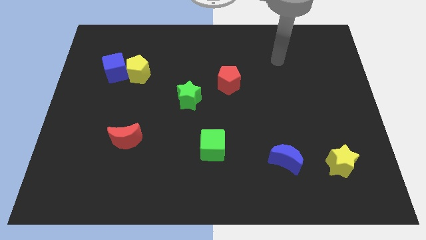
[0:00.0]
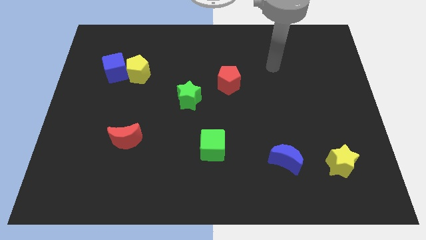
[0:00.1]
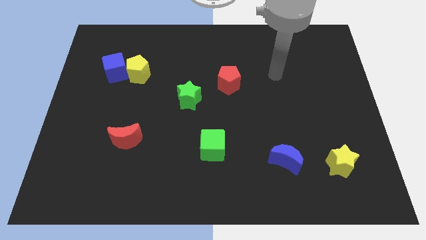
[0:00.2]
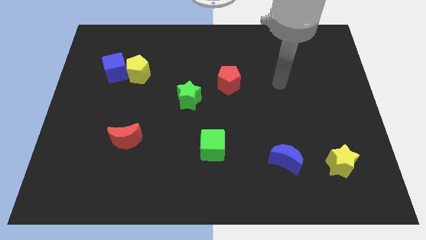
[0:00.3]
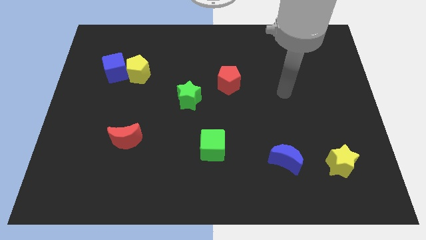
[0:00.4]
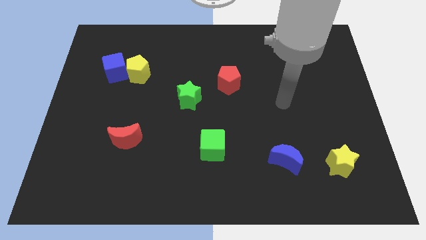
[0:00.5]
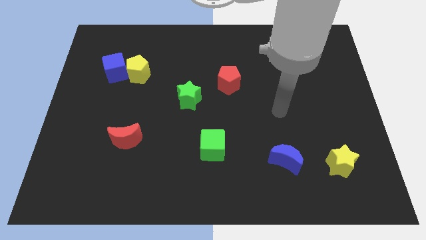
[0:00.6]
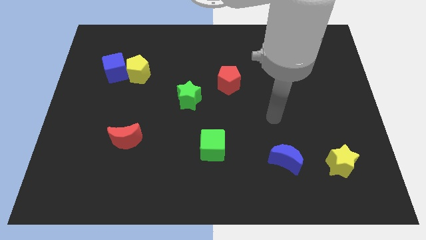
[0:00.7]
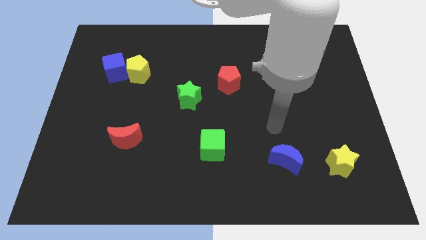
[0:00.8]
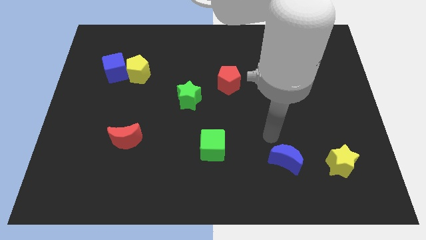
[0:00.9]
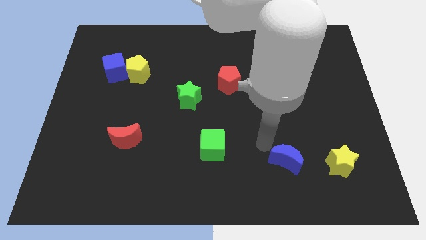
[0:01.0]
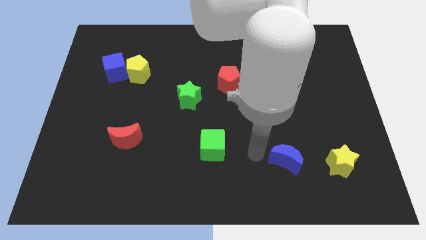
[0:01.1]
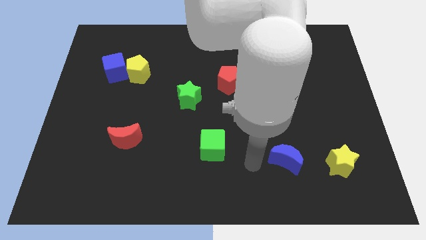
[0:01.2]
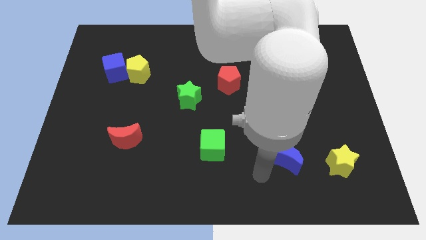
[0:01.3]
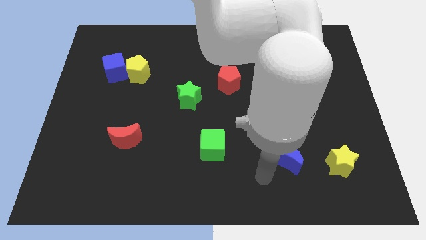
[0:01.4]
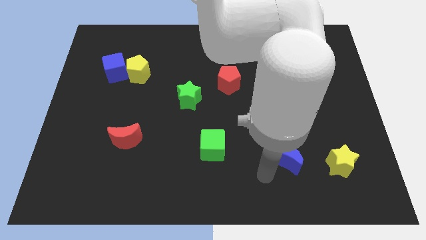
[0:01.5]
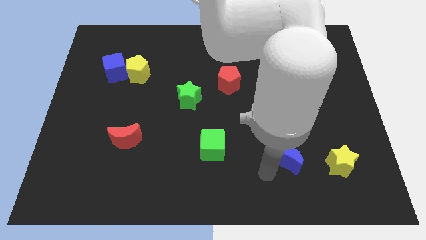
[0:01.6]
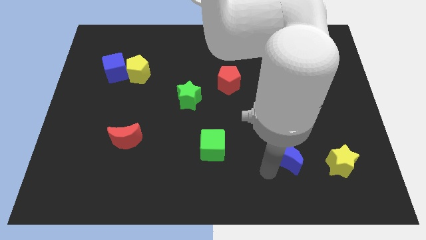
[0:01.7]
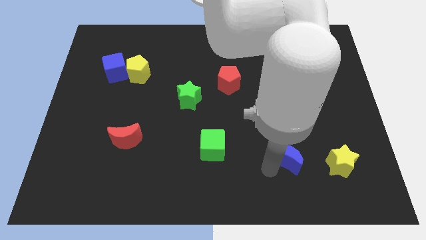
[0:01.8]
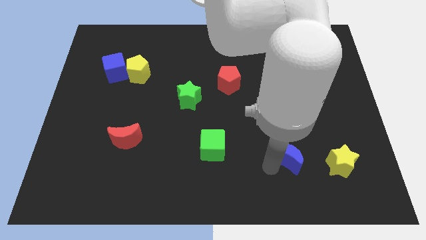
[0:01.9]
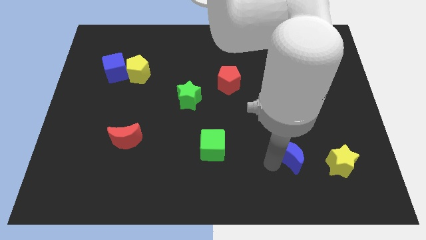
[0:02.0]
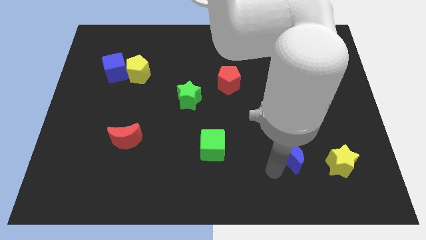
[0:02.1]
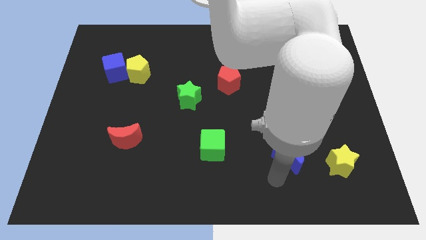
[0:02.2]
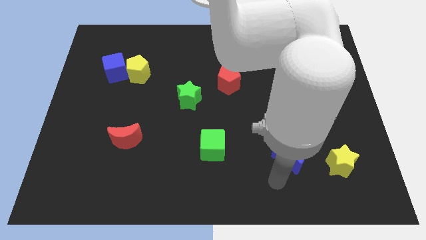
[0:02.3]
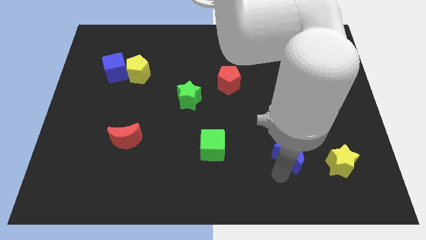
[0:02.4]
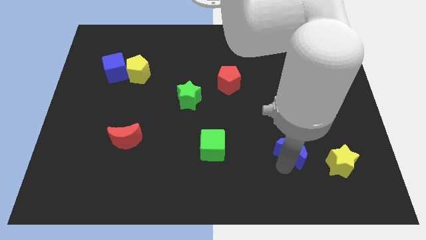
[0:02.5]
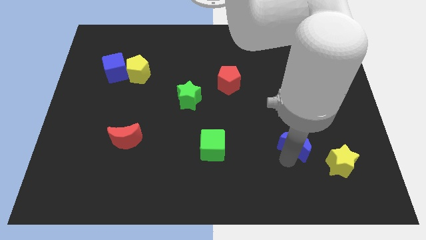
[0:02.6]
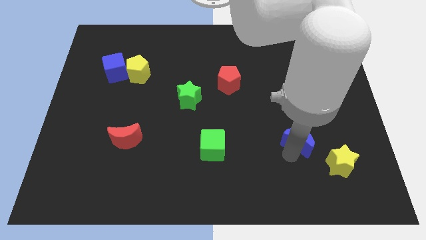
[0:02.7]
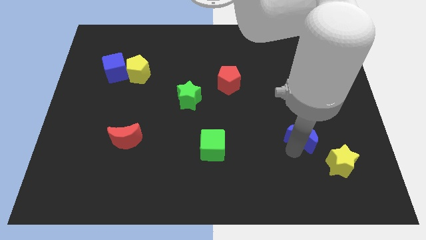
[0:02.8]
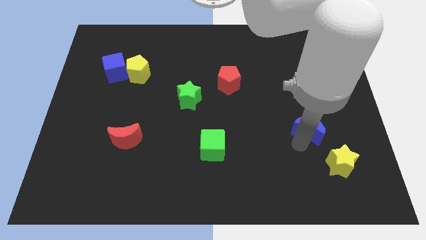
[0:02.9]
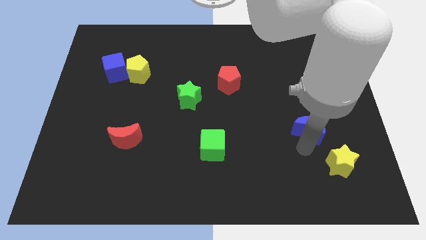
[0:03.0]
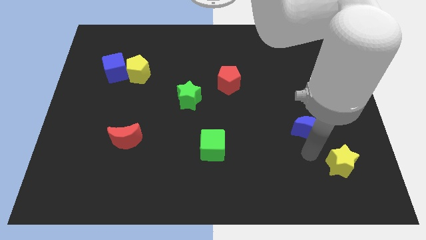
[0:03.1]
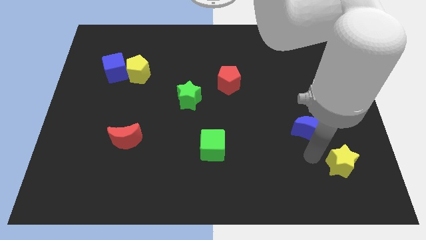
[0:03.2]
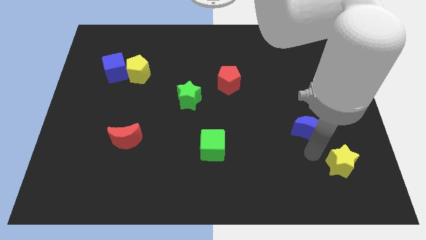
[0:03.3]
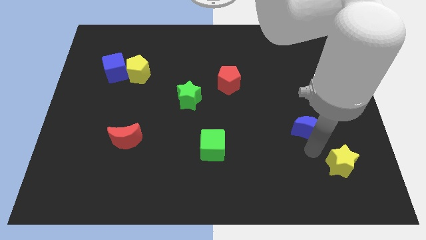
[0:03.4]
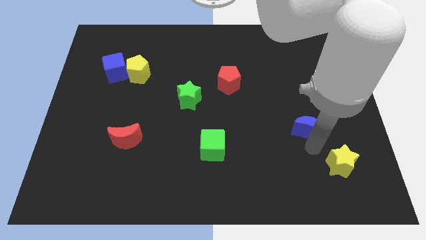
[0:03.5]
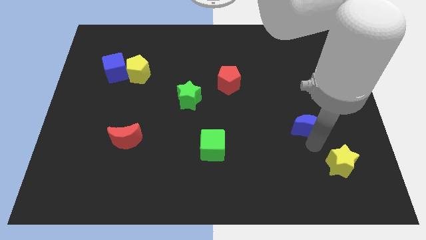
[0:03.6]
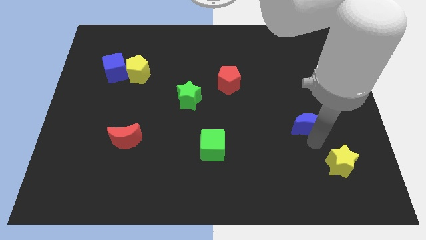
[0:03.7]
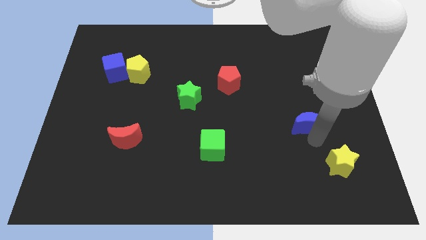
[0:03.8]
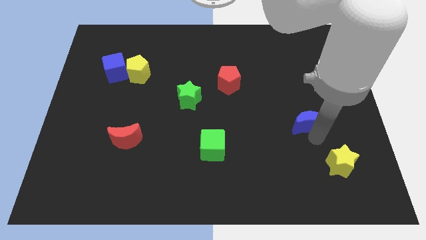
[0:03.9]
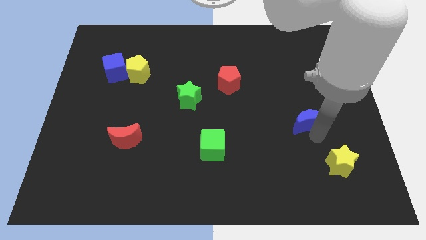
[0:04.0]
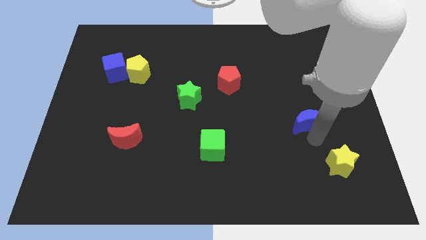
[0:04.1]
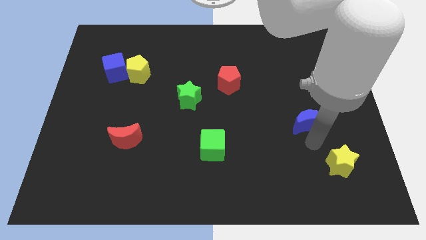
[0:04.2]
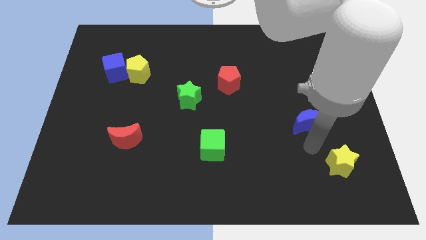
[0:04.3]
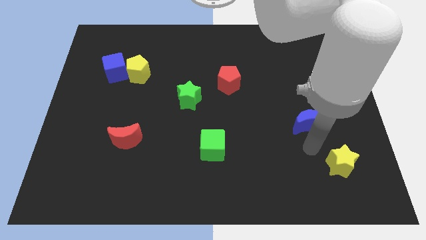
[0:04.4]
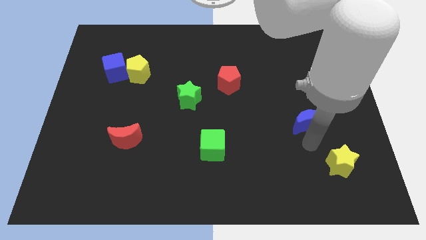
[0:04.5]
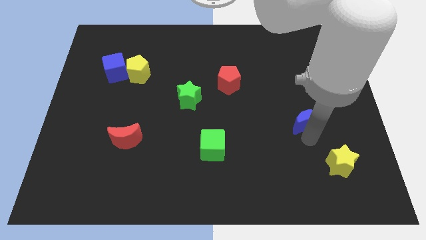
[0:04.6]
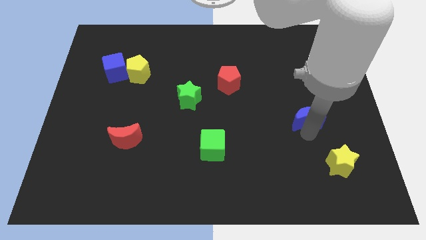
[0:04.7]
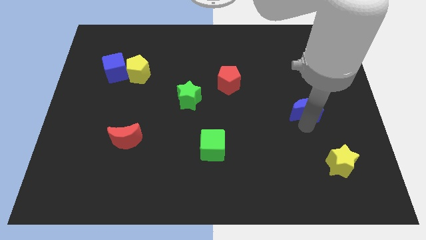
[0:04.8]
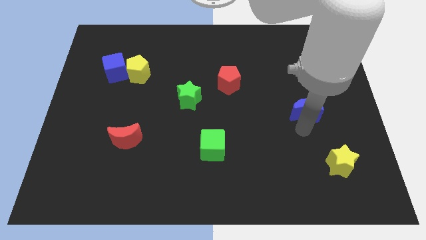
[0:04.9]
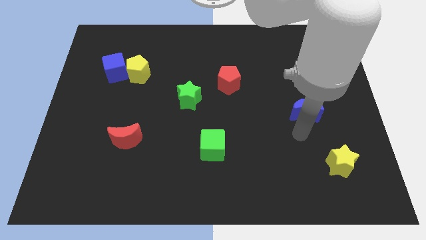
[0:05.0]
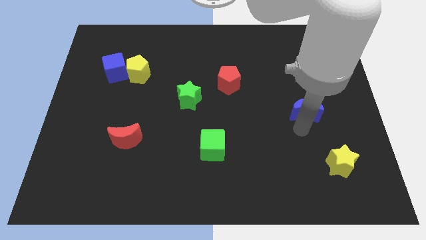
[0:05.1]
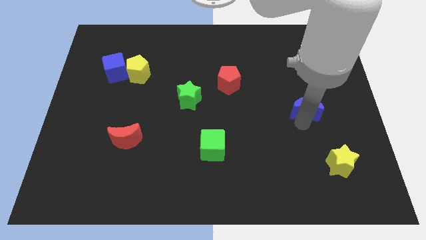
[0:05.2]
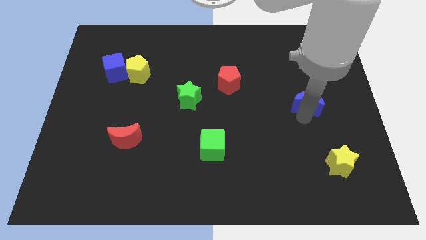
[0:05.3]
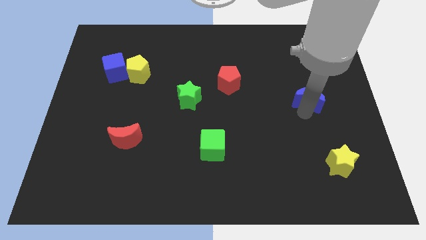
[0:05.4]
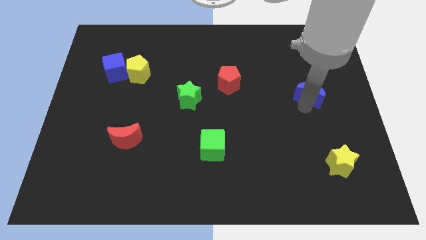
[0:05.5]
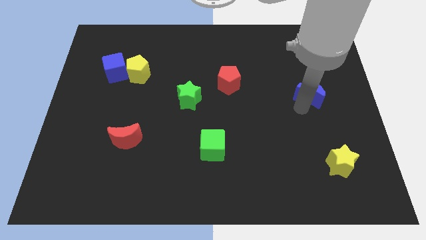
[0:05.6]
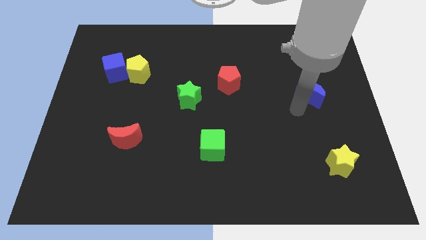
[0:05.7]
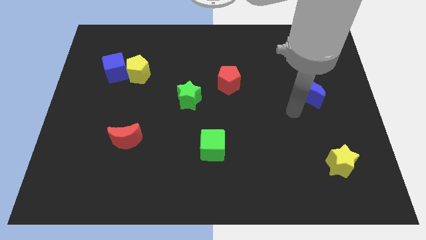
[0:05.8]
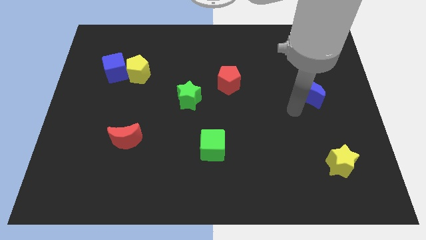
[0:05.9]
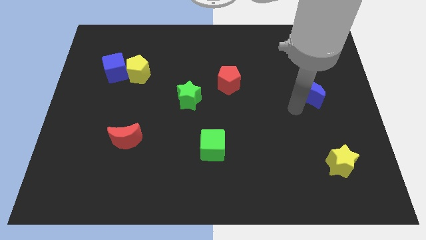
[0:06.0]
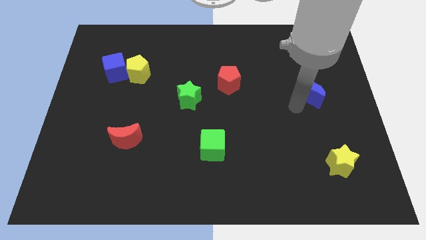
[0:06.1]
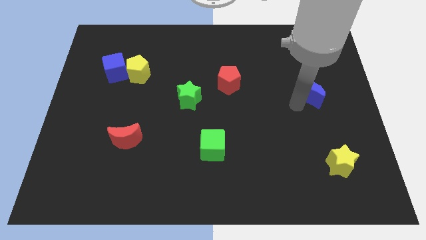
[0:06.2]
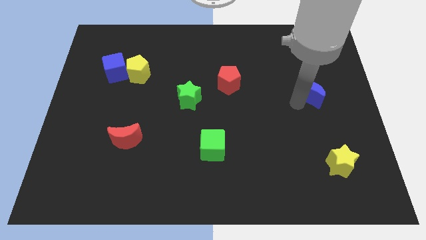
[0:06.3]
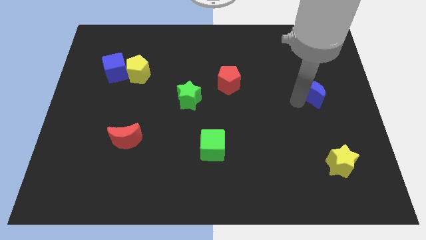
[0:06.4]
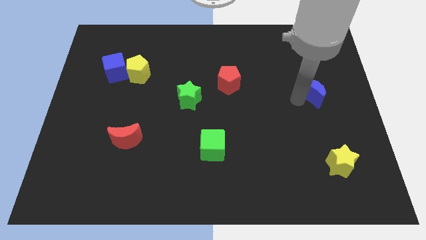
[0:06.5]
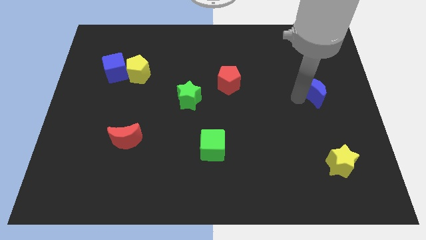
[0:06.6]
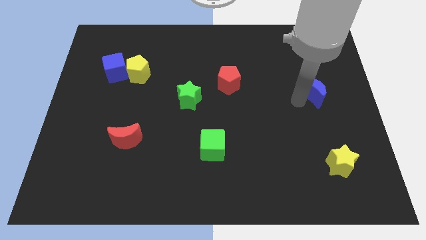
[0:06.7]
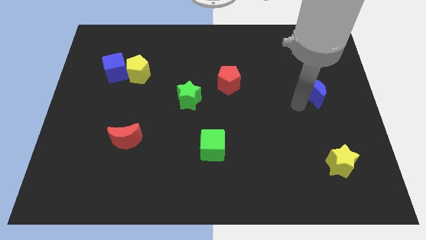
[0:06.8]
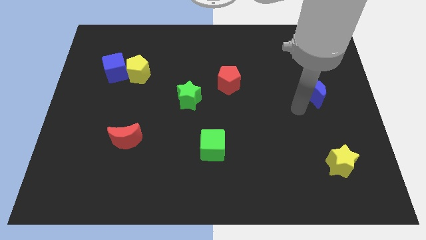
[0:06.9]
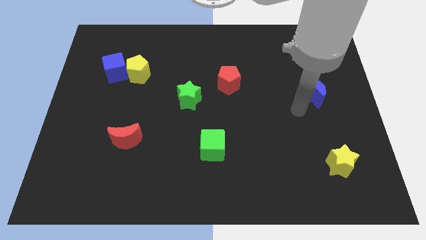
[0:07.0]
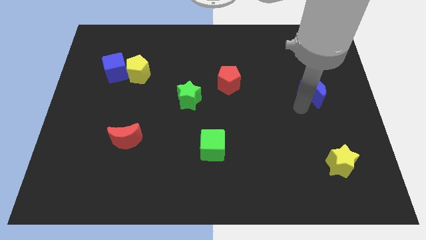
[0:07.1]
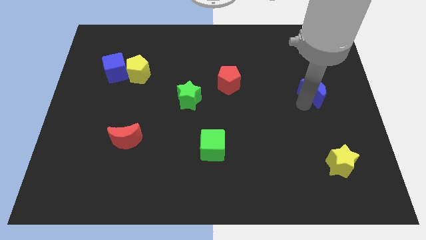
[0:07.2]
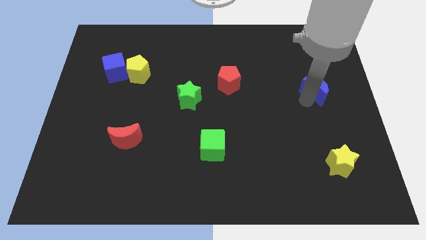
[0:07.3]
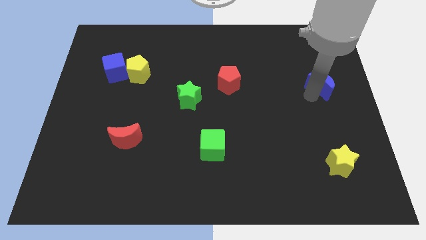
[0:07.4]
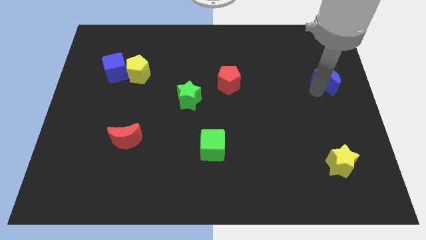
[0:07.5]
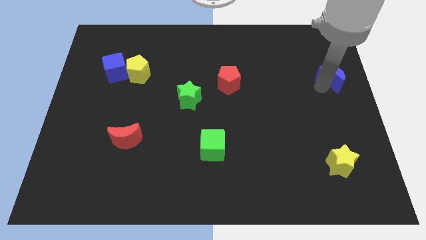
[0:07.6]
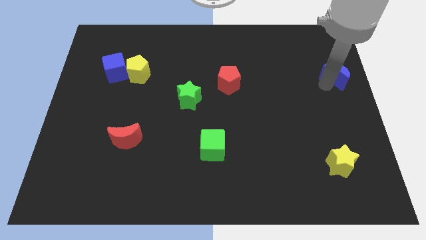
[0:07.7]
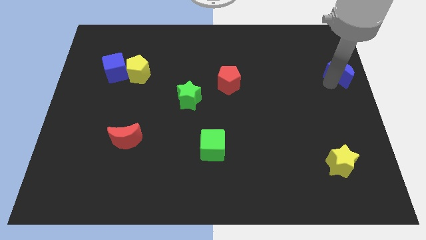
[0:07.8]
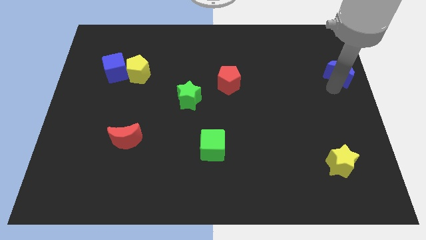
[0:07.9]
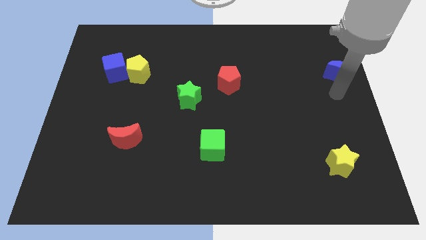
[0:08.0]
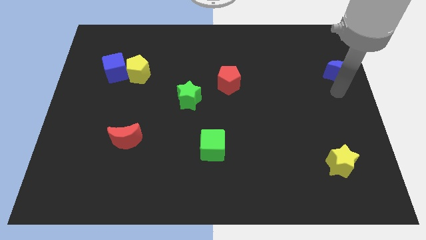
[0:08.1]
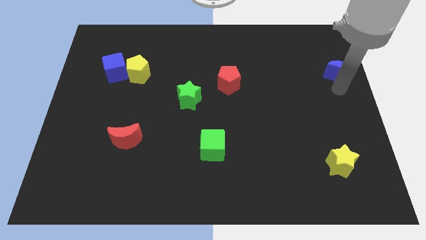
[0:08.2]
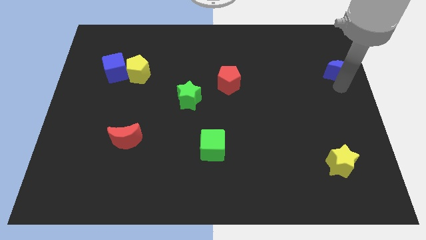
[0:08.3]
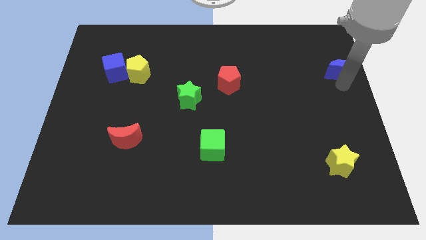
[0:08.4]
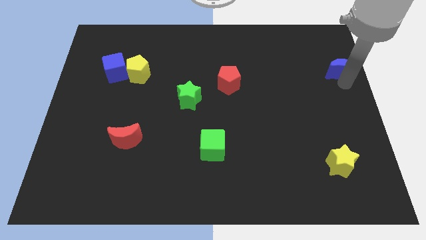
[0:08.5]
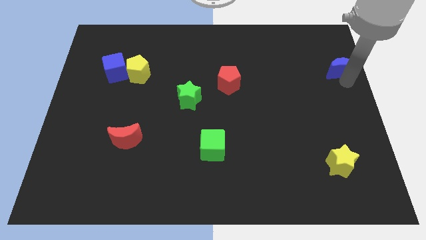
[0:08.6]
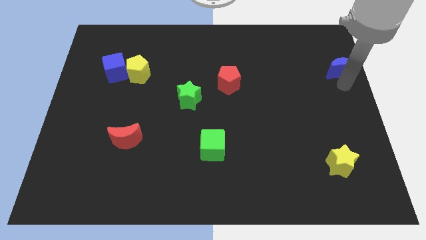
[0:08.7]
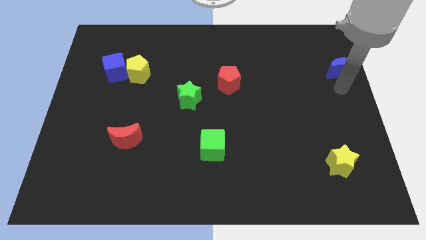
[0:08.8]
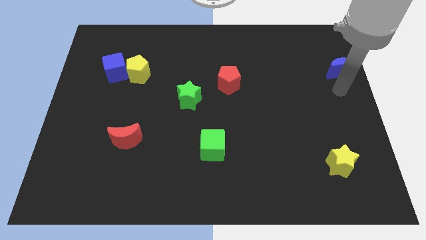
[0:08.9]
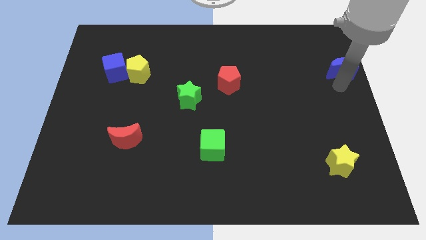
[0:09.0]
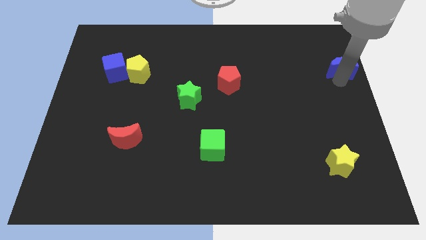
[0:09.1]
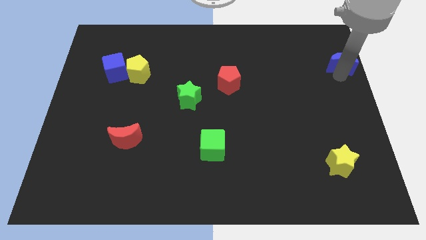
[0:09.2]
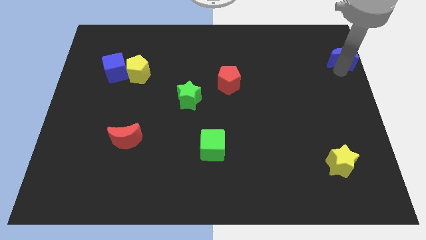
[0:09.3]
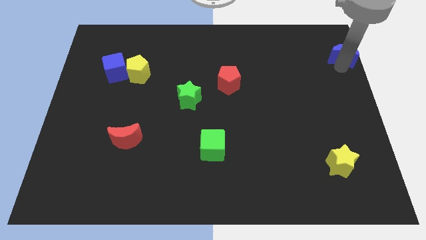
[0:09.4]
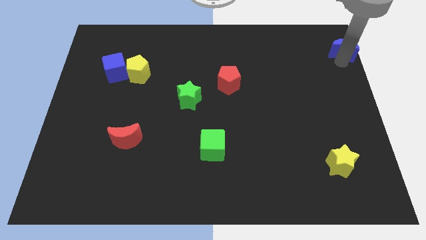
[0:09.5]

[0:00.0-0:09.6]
move the blue moon to the upper right corner
